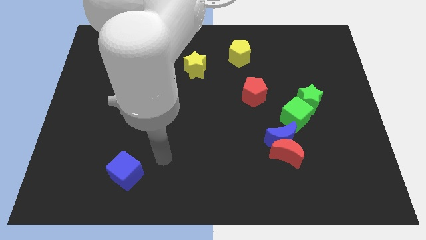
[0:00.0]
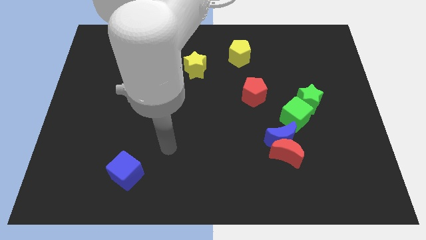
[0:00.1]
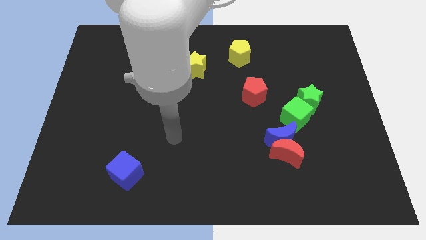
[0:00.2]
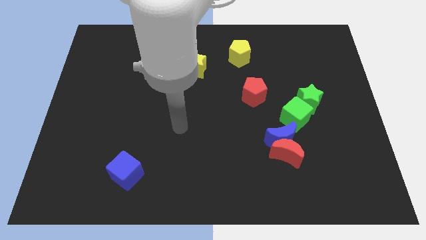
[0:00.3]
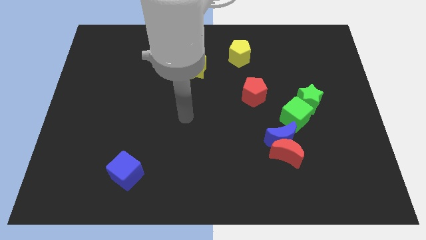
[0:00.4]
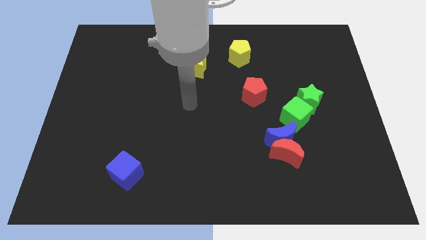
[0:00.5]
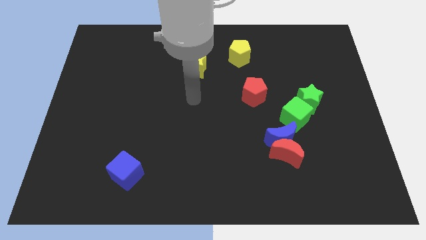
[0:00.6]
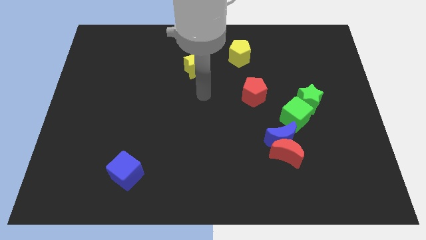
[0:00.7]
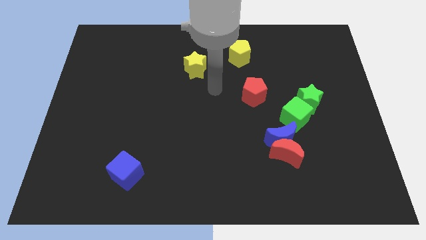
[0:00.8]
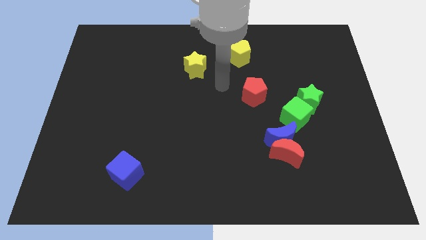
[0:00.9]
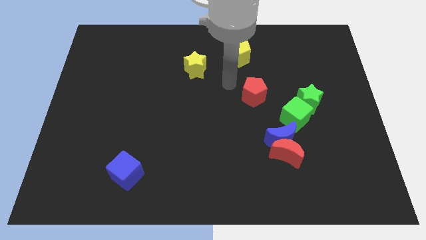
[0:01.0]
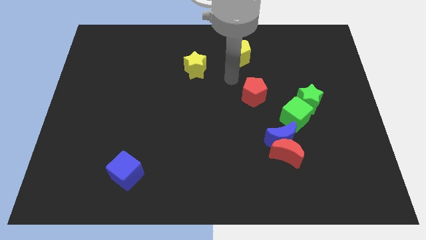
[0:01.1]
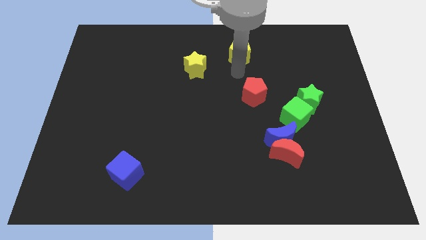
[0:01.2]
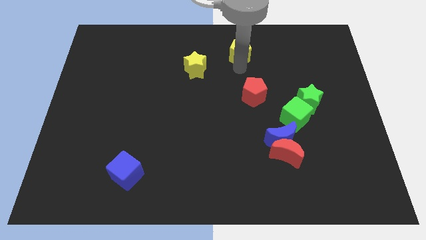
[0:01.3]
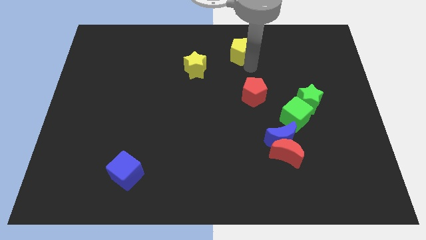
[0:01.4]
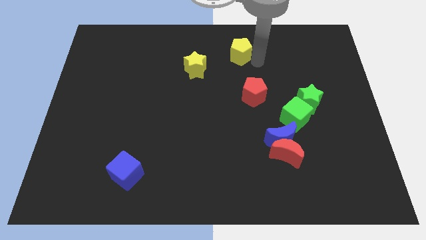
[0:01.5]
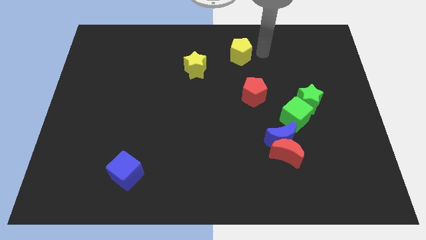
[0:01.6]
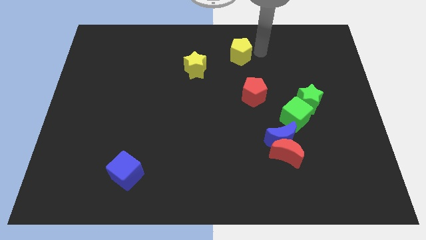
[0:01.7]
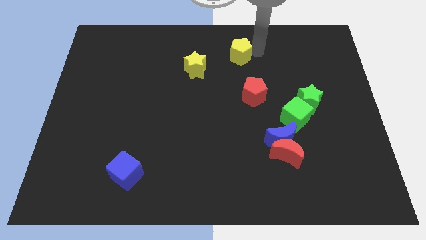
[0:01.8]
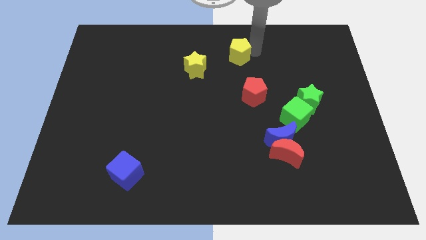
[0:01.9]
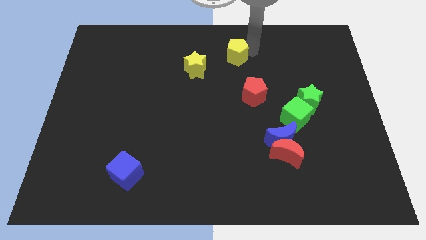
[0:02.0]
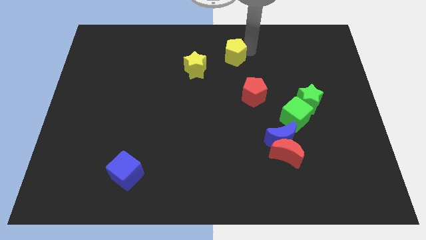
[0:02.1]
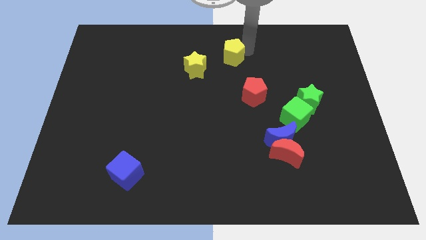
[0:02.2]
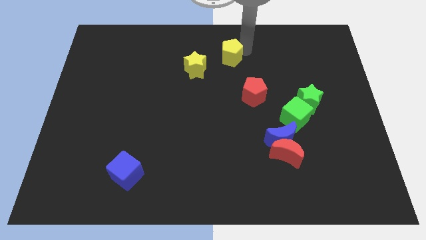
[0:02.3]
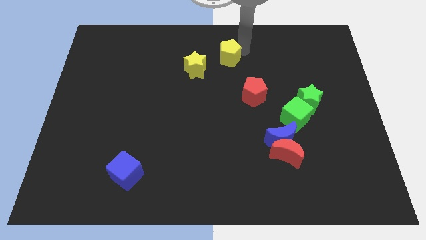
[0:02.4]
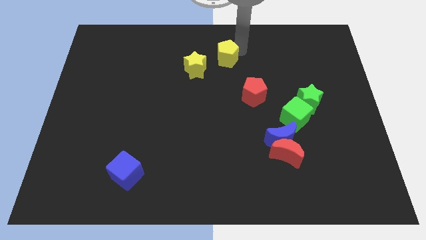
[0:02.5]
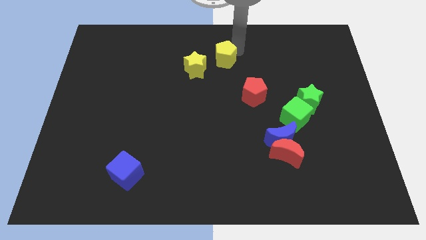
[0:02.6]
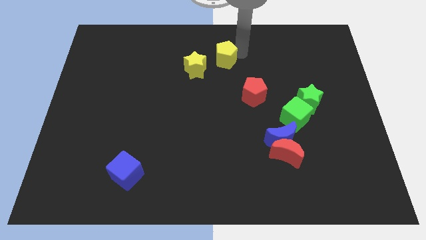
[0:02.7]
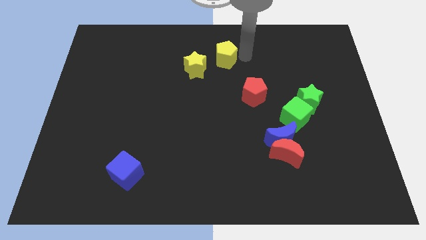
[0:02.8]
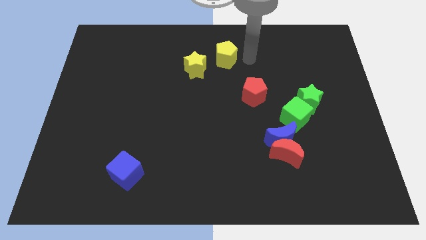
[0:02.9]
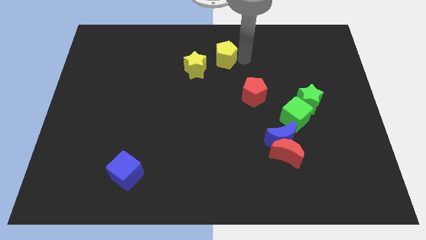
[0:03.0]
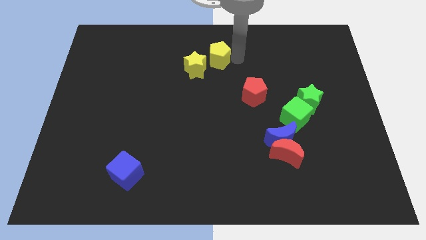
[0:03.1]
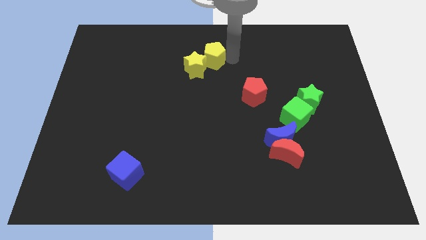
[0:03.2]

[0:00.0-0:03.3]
slightly push the yellow pentagon left

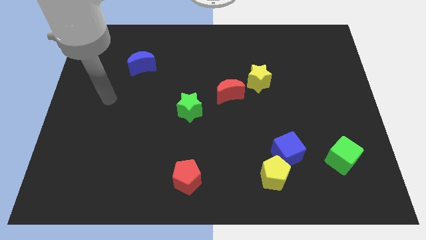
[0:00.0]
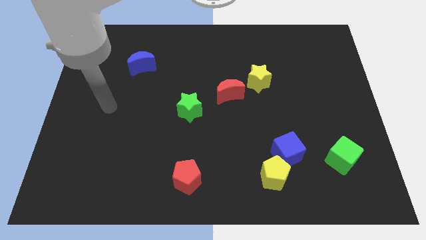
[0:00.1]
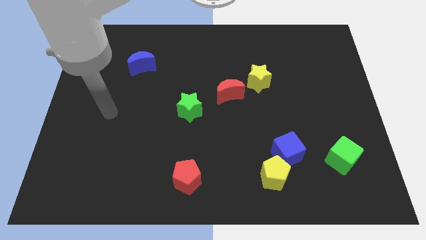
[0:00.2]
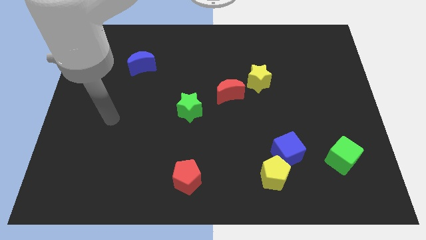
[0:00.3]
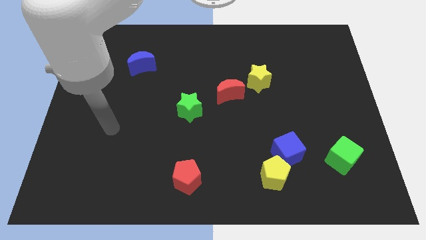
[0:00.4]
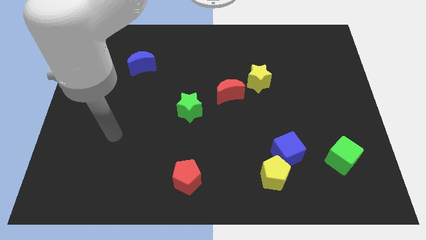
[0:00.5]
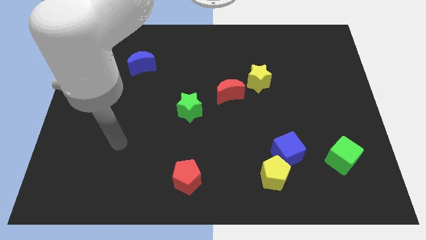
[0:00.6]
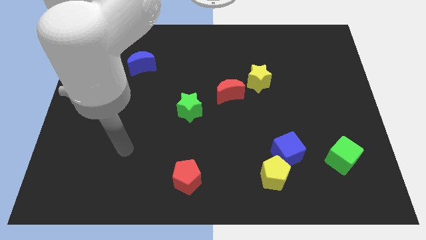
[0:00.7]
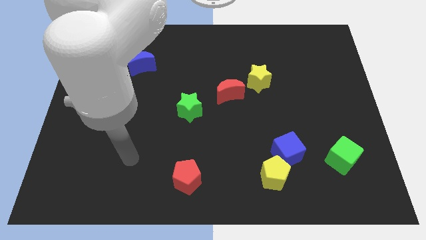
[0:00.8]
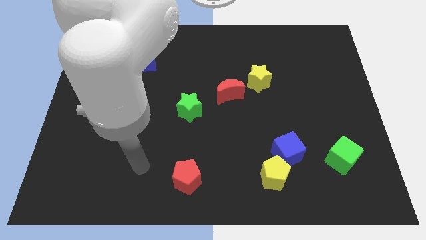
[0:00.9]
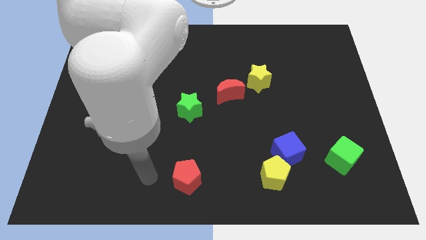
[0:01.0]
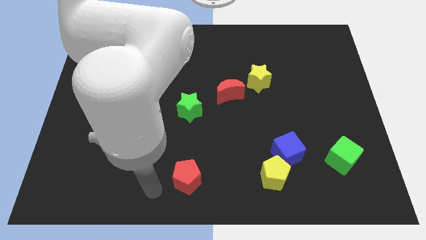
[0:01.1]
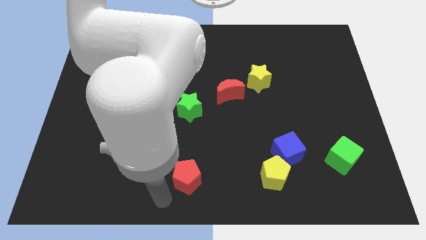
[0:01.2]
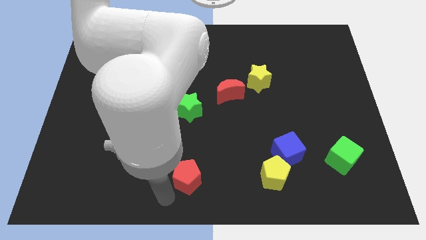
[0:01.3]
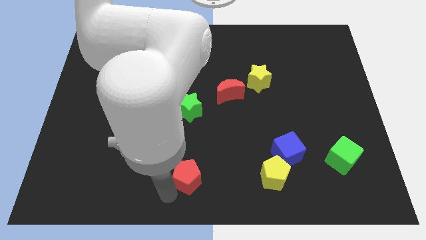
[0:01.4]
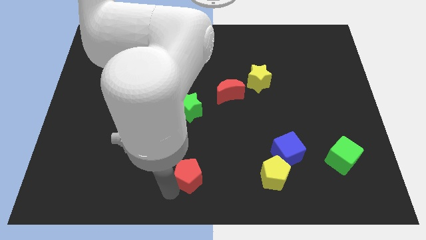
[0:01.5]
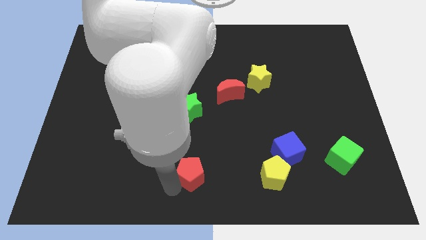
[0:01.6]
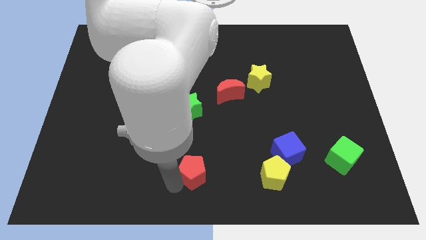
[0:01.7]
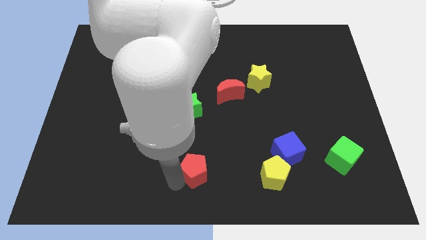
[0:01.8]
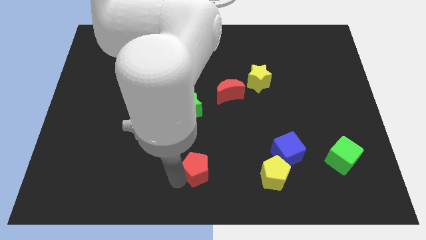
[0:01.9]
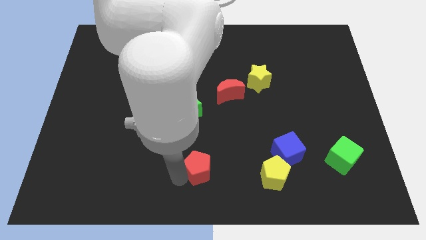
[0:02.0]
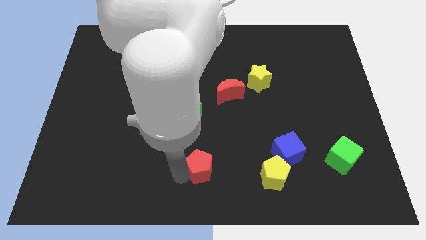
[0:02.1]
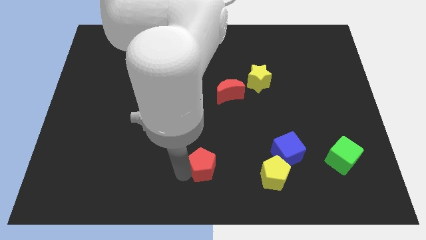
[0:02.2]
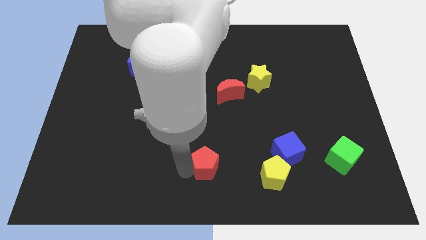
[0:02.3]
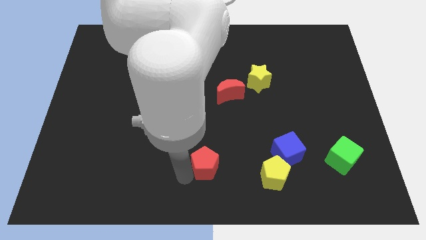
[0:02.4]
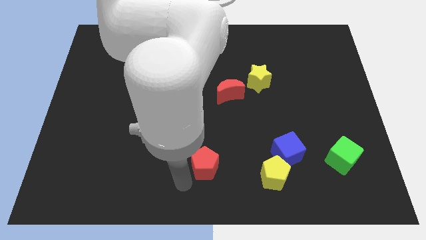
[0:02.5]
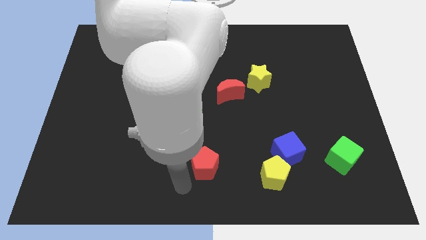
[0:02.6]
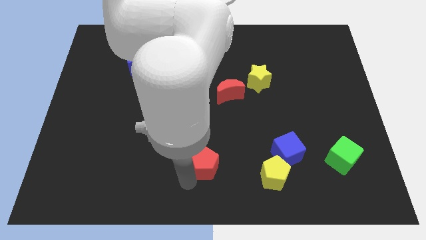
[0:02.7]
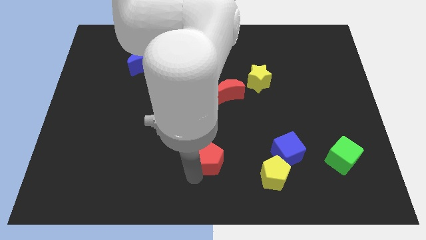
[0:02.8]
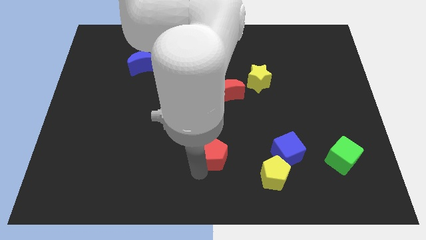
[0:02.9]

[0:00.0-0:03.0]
move the red pentagon a little up and to the right

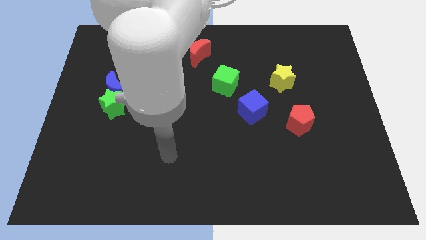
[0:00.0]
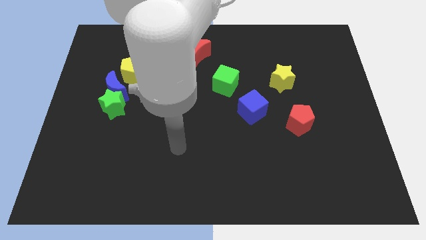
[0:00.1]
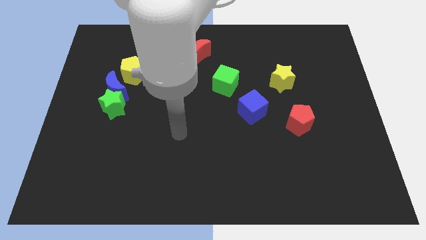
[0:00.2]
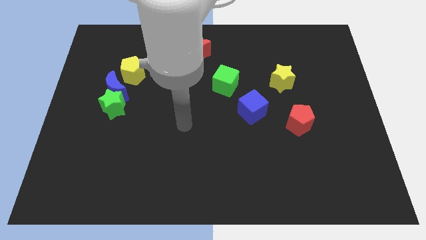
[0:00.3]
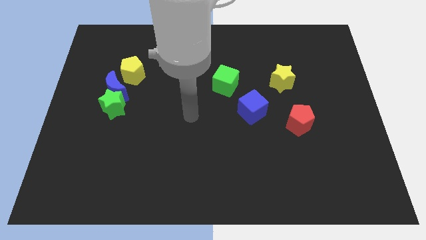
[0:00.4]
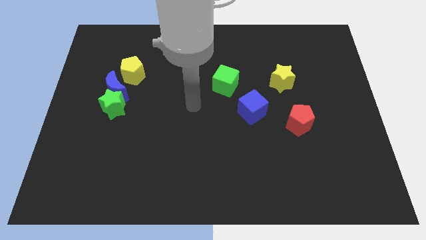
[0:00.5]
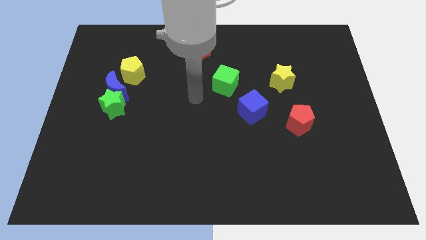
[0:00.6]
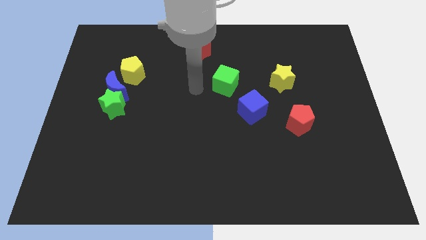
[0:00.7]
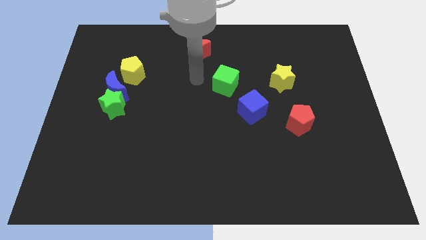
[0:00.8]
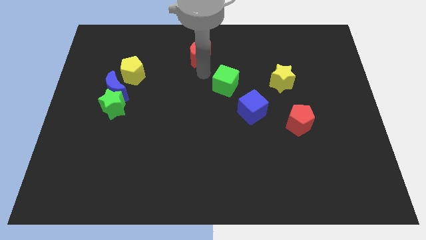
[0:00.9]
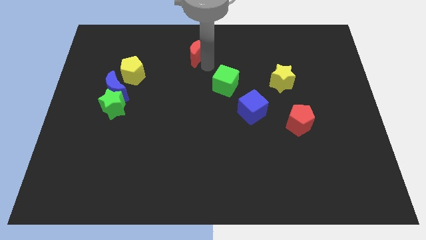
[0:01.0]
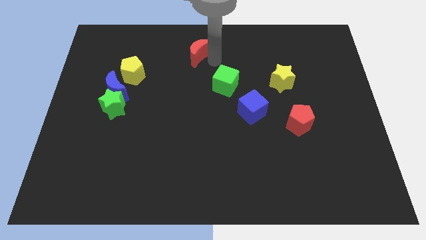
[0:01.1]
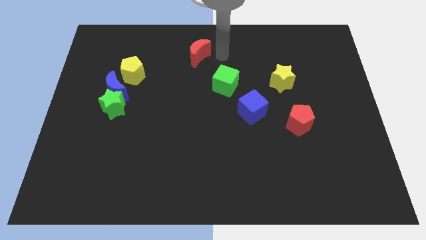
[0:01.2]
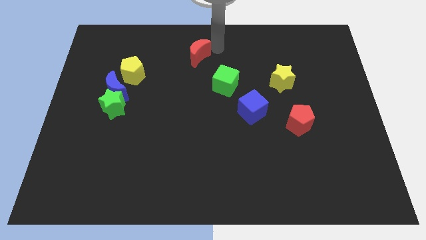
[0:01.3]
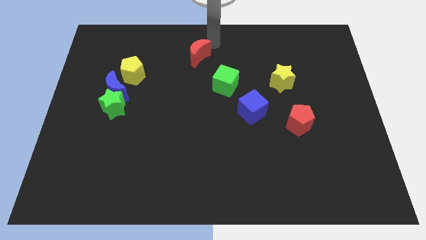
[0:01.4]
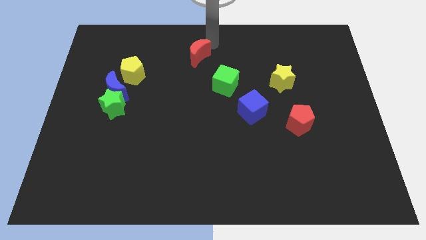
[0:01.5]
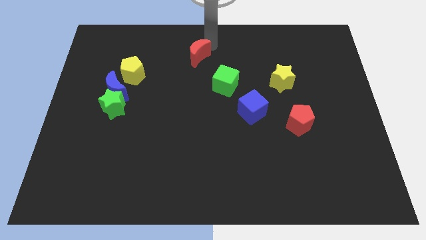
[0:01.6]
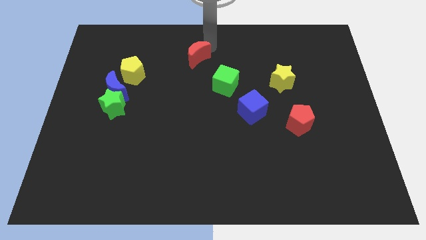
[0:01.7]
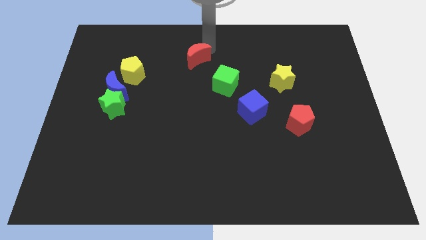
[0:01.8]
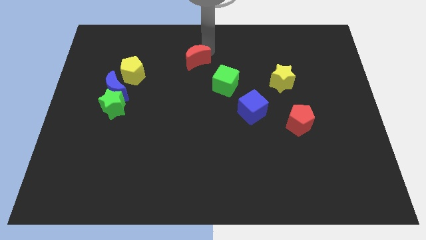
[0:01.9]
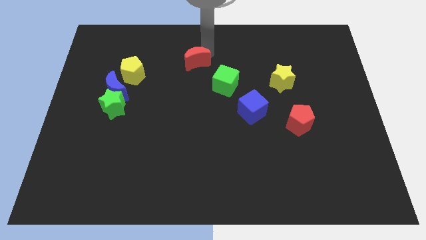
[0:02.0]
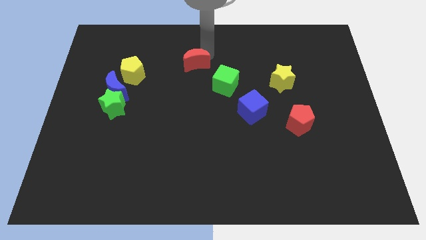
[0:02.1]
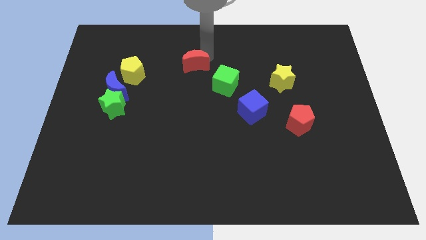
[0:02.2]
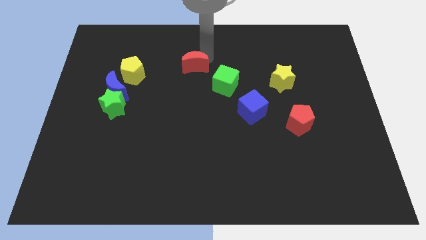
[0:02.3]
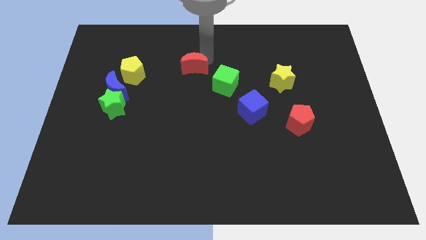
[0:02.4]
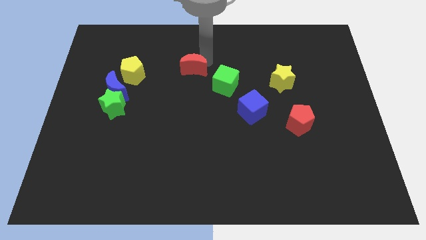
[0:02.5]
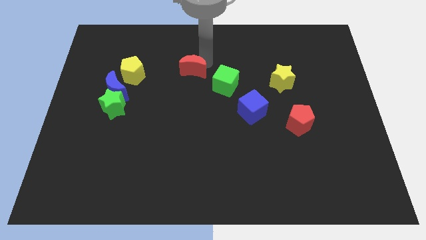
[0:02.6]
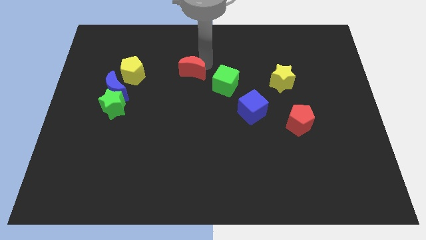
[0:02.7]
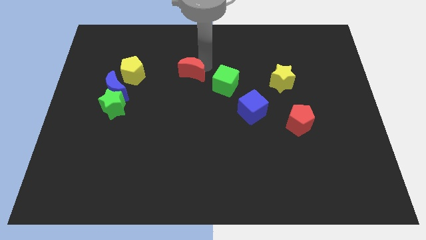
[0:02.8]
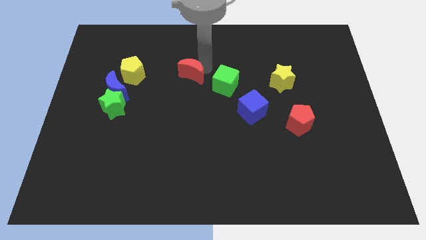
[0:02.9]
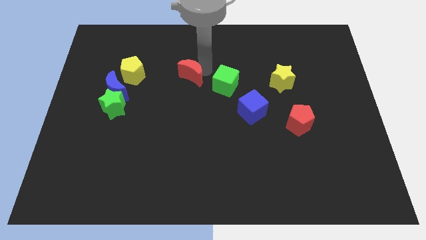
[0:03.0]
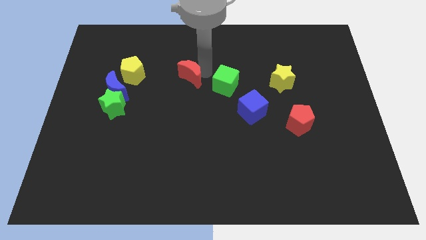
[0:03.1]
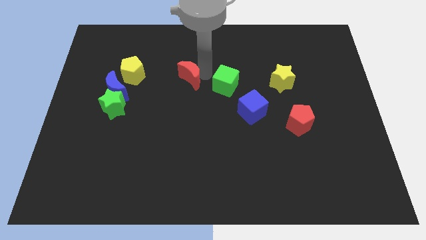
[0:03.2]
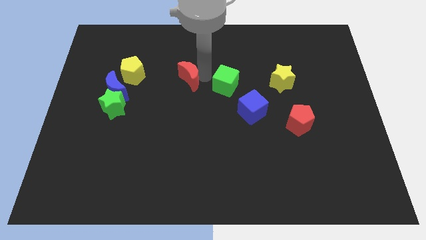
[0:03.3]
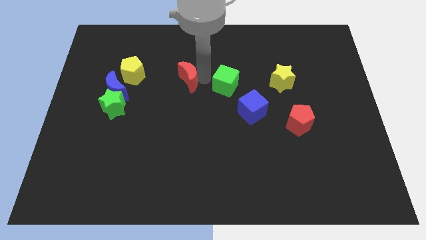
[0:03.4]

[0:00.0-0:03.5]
slightly slide the red moon diagonally down and left
